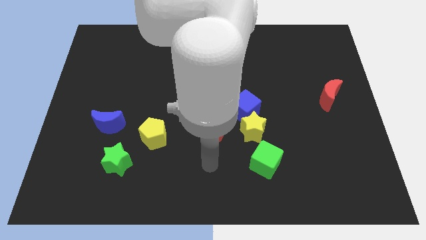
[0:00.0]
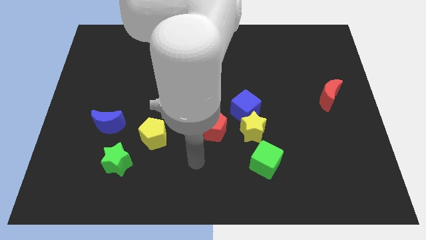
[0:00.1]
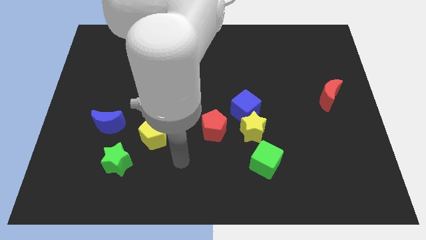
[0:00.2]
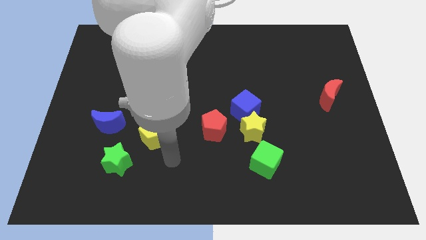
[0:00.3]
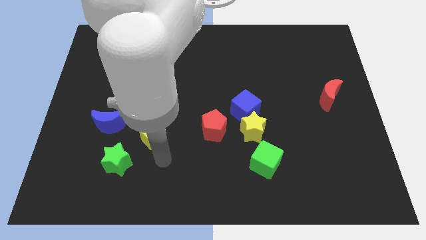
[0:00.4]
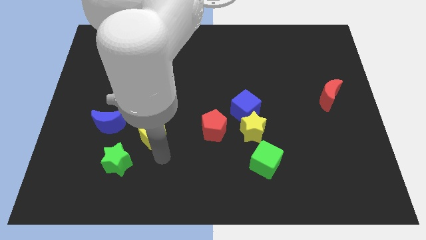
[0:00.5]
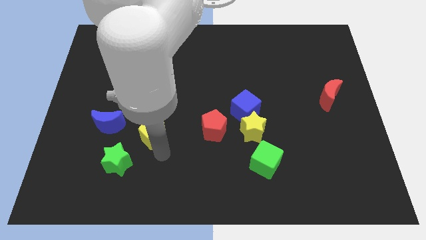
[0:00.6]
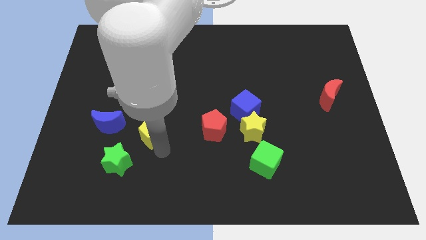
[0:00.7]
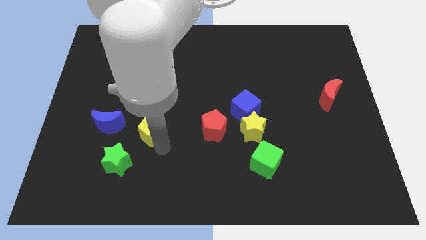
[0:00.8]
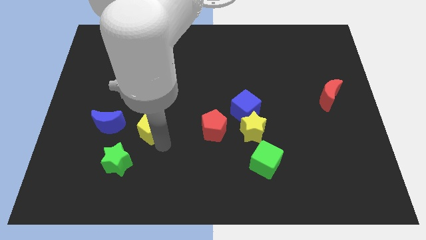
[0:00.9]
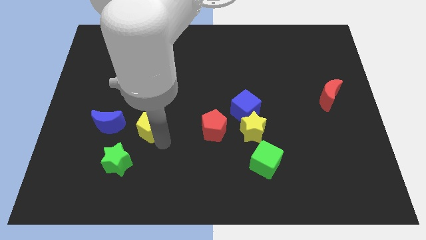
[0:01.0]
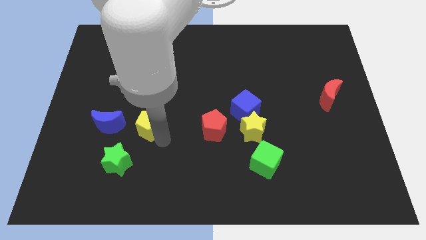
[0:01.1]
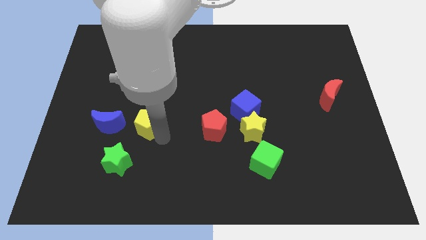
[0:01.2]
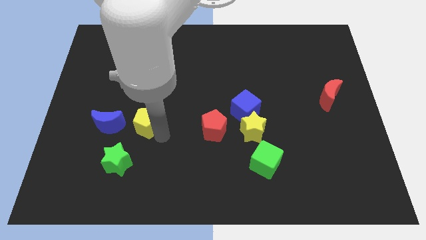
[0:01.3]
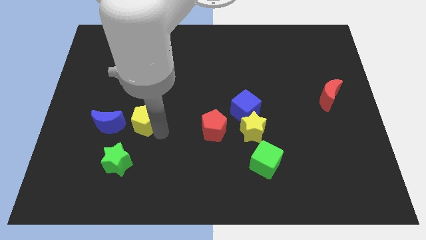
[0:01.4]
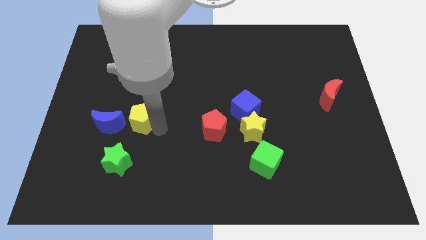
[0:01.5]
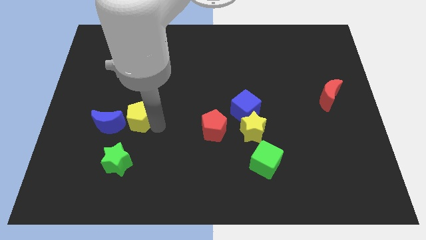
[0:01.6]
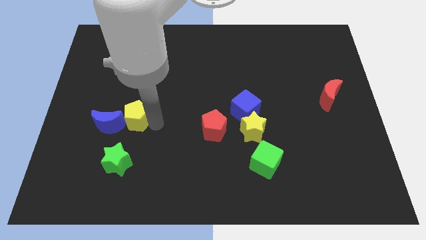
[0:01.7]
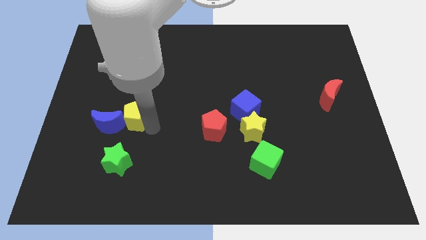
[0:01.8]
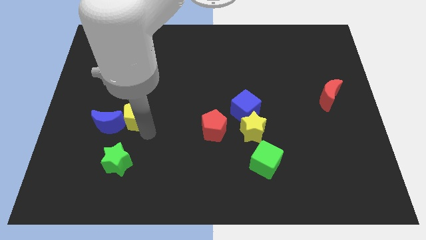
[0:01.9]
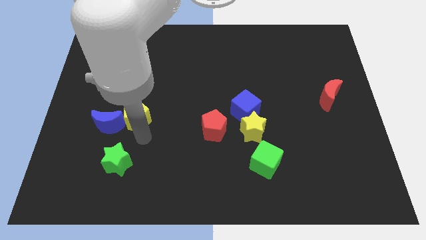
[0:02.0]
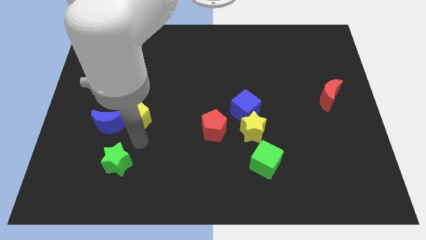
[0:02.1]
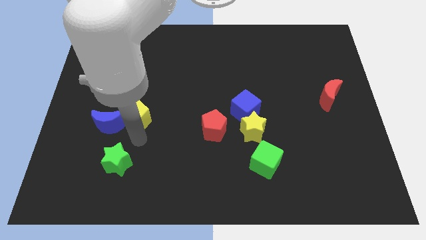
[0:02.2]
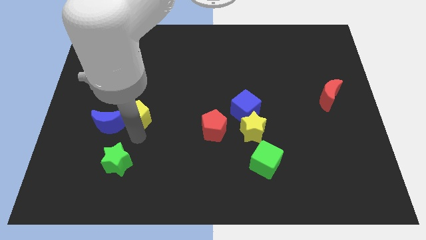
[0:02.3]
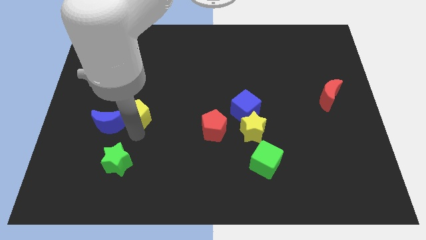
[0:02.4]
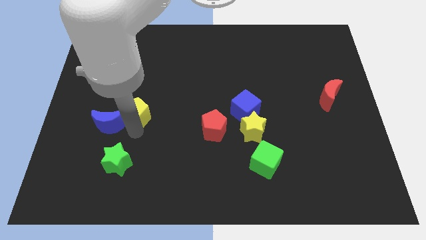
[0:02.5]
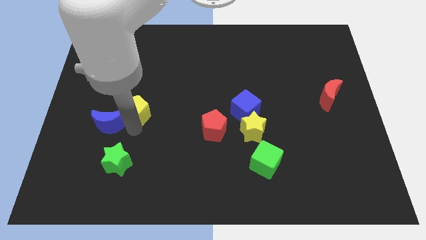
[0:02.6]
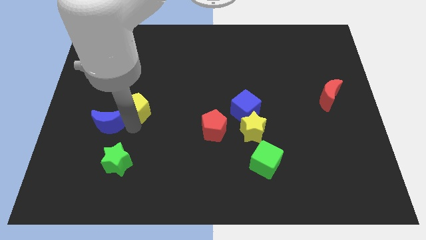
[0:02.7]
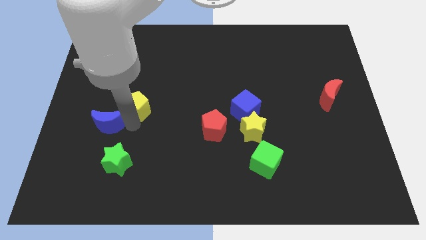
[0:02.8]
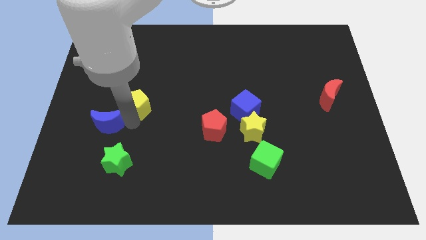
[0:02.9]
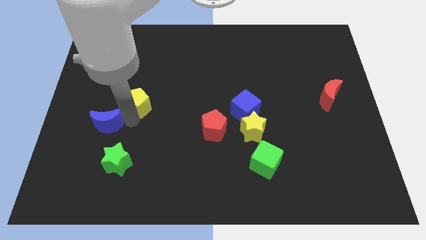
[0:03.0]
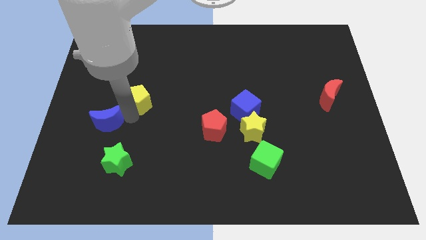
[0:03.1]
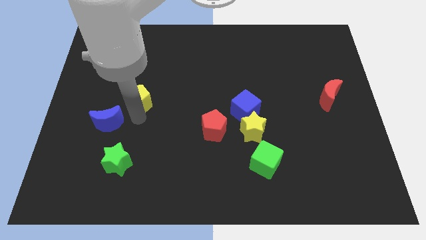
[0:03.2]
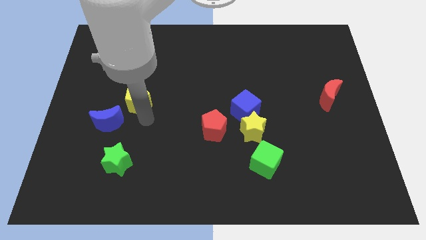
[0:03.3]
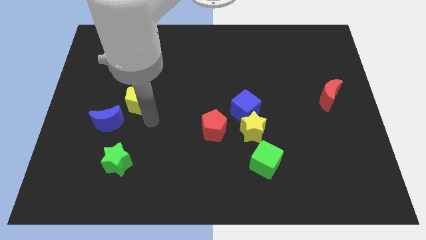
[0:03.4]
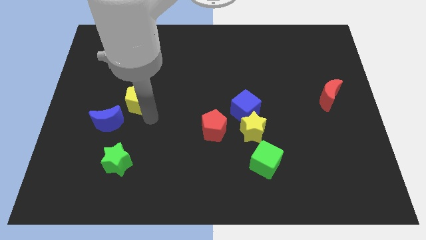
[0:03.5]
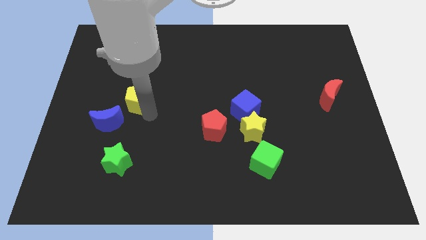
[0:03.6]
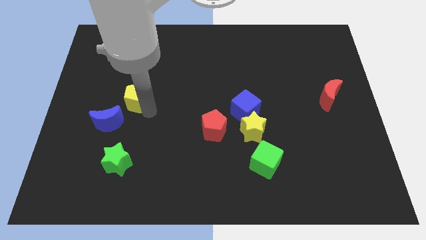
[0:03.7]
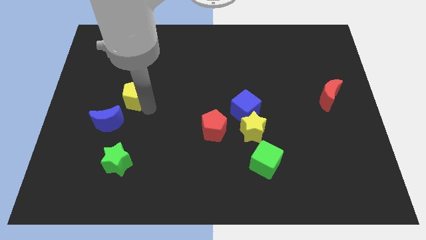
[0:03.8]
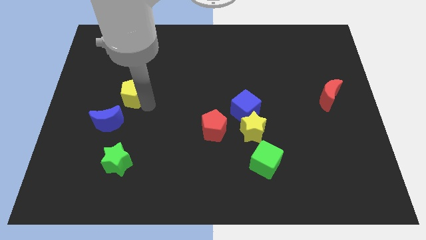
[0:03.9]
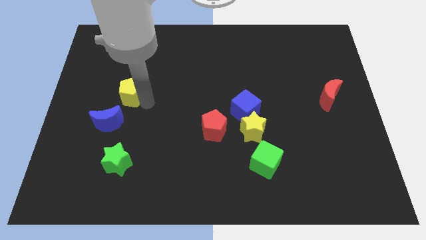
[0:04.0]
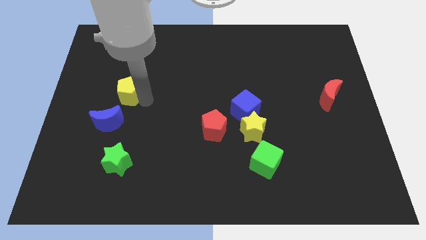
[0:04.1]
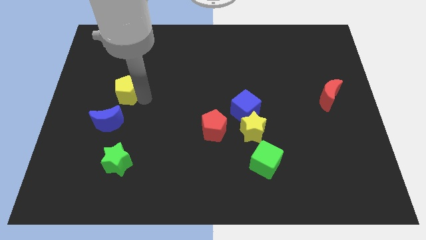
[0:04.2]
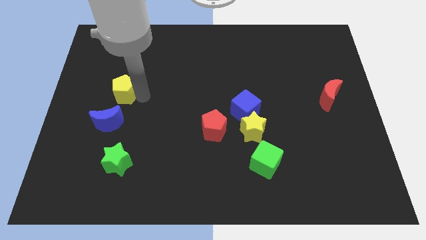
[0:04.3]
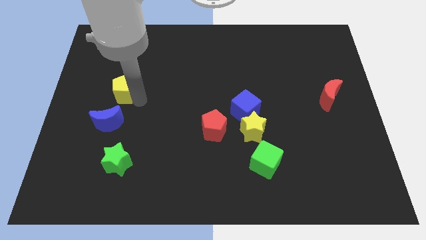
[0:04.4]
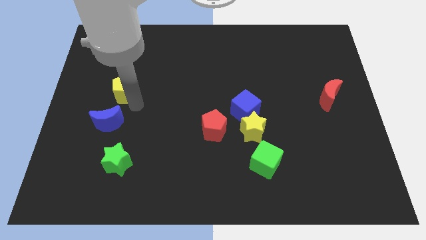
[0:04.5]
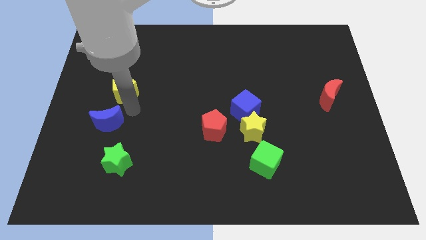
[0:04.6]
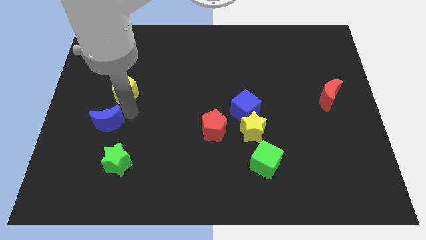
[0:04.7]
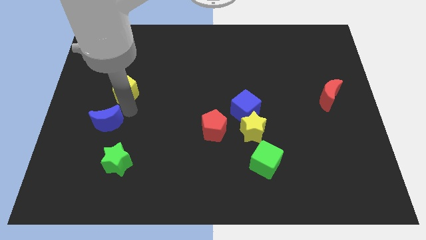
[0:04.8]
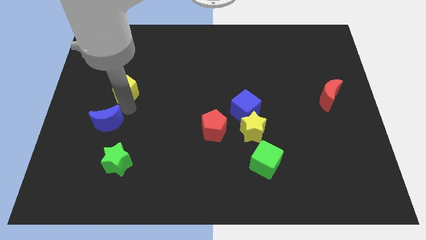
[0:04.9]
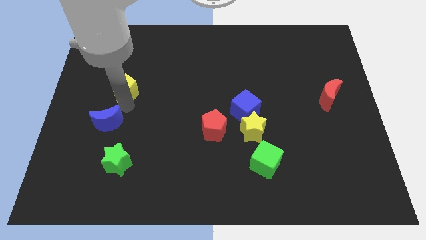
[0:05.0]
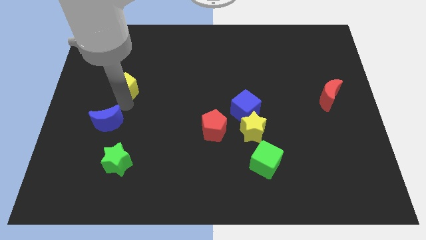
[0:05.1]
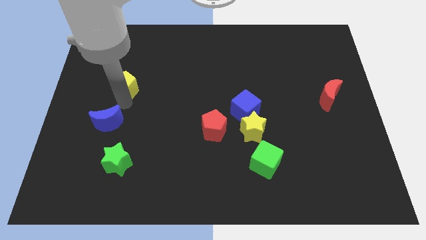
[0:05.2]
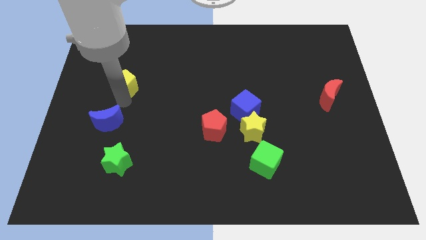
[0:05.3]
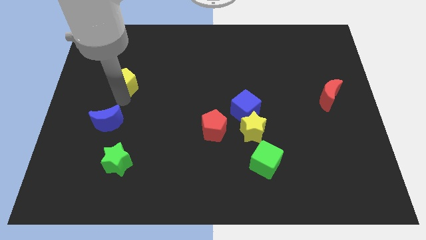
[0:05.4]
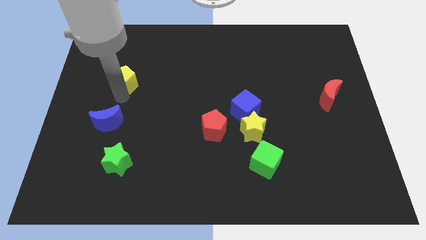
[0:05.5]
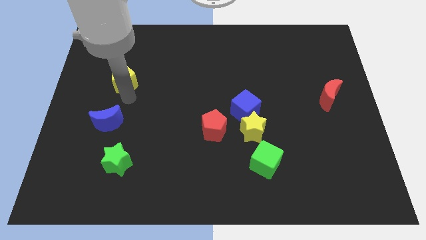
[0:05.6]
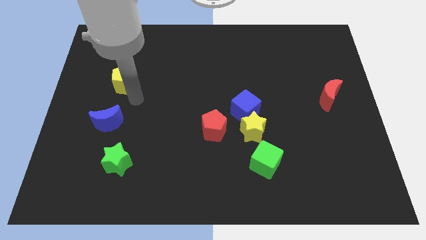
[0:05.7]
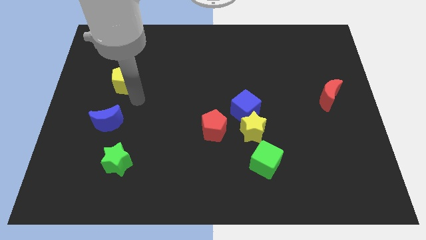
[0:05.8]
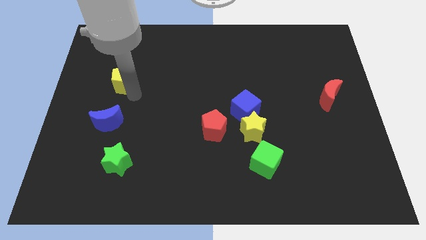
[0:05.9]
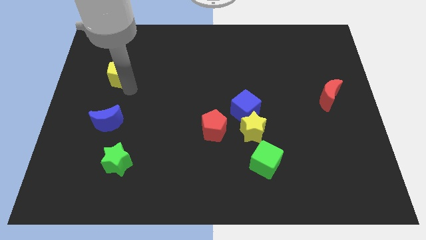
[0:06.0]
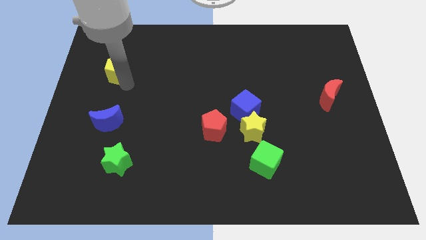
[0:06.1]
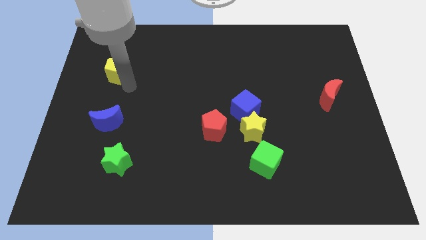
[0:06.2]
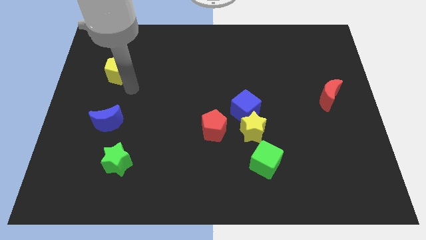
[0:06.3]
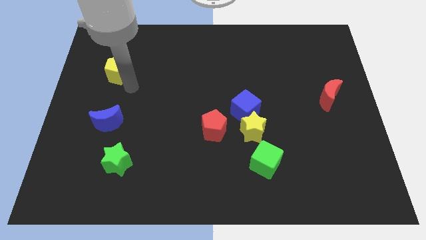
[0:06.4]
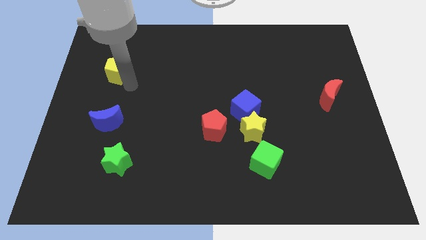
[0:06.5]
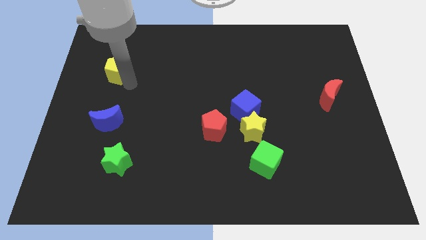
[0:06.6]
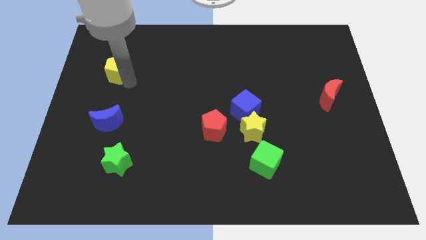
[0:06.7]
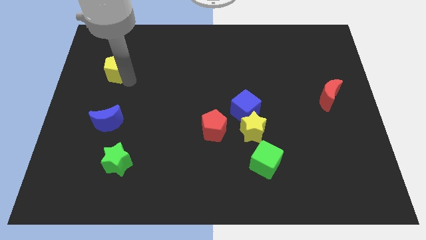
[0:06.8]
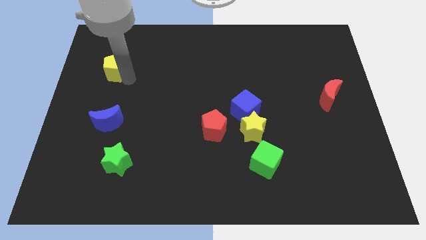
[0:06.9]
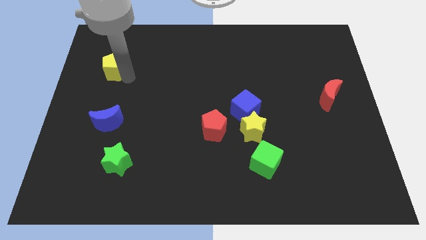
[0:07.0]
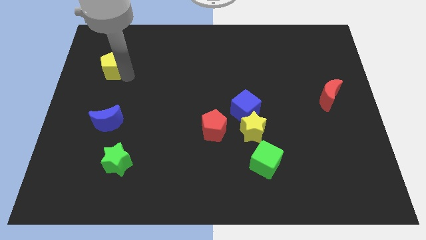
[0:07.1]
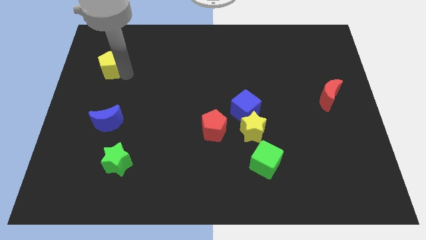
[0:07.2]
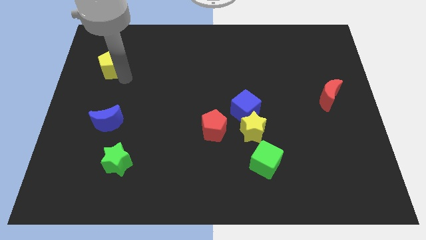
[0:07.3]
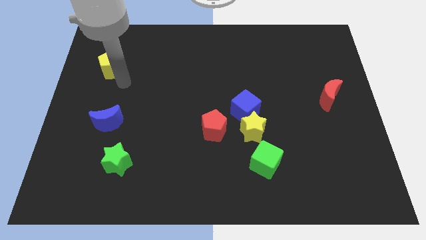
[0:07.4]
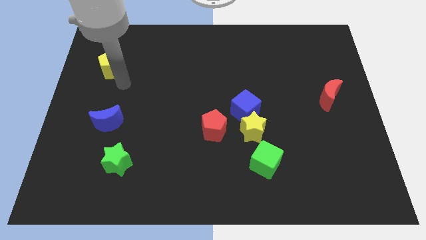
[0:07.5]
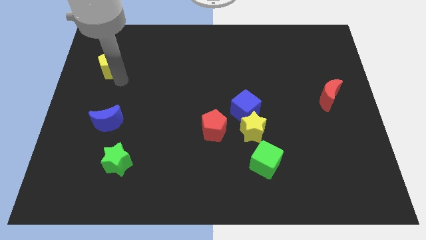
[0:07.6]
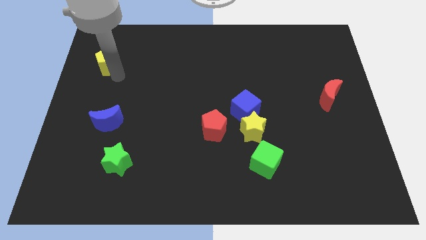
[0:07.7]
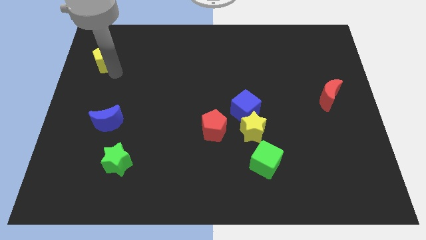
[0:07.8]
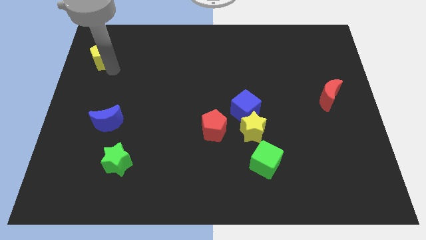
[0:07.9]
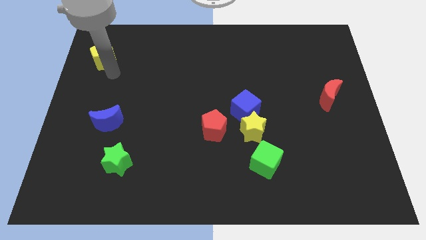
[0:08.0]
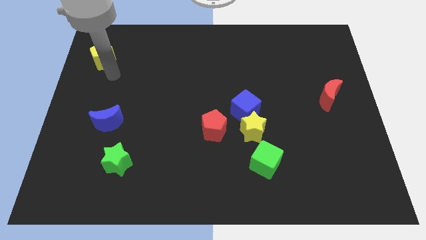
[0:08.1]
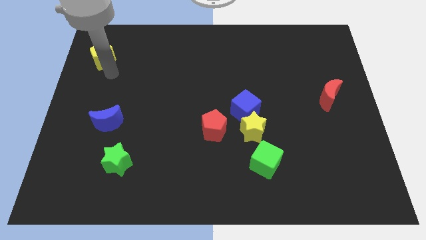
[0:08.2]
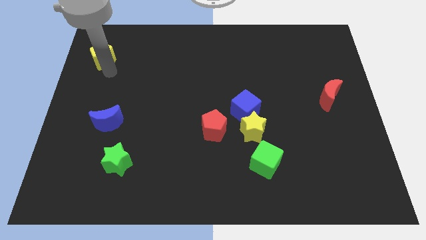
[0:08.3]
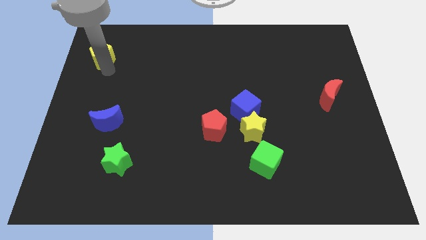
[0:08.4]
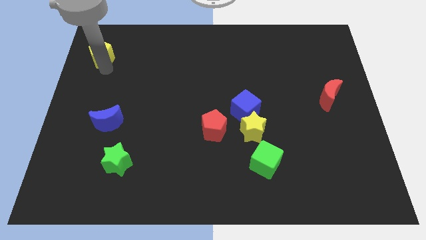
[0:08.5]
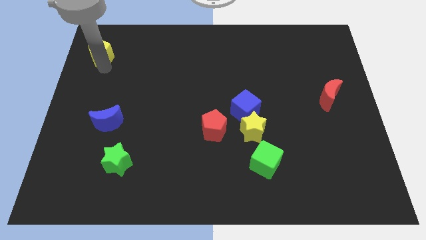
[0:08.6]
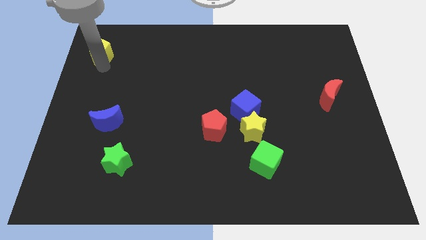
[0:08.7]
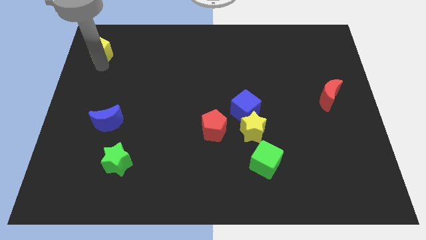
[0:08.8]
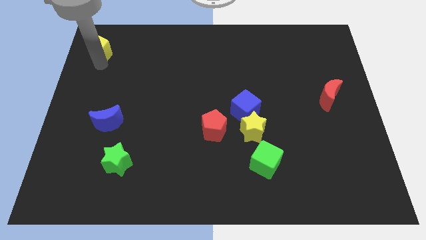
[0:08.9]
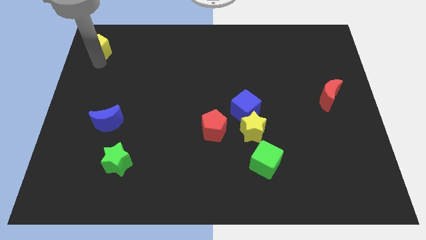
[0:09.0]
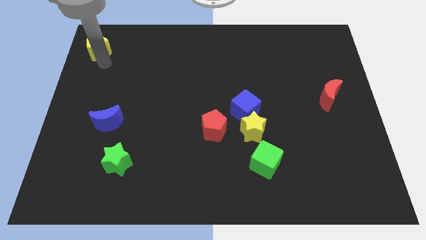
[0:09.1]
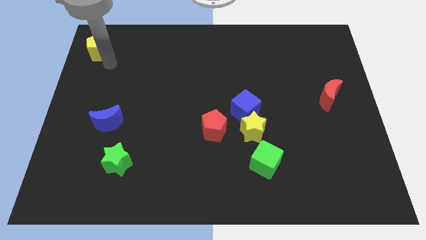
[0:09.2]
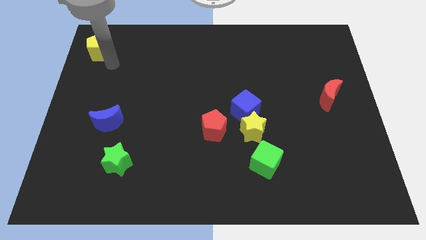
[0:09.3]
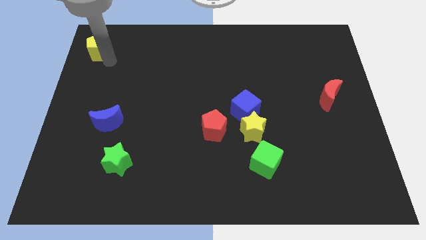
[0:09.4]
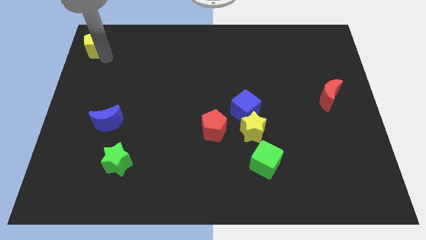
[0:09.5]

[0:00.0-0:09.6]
push the yellow pentagon to the upper left corner
